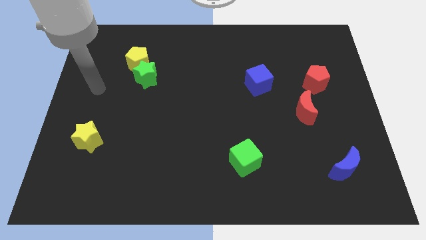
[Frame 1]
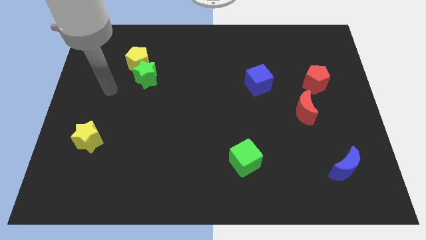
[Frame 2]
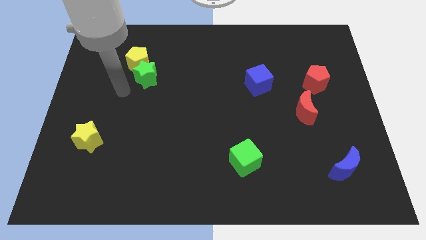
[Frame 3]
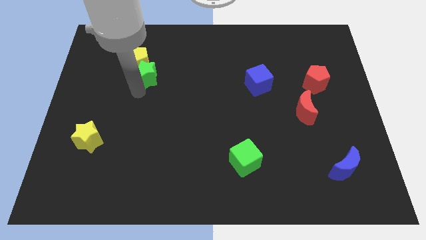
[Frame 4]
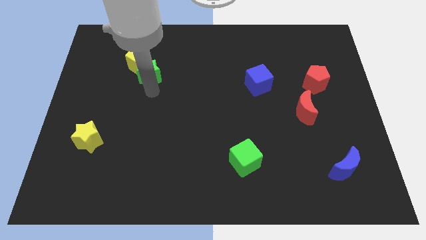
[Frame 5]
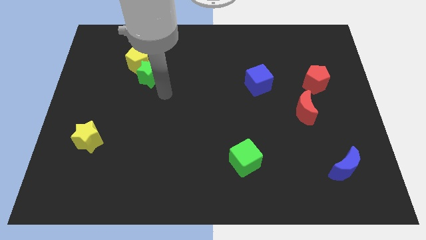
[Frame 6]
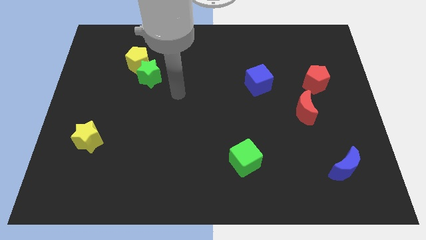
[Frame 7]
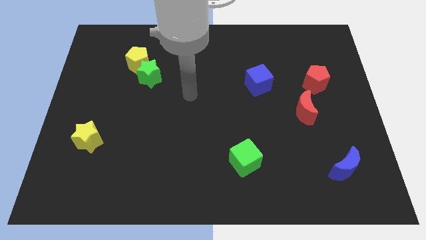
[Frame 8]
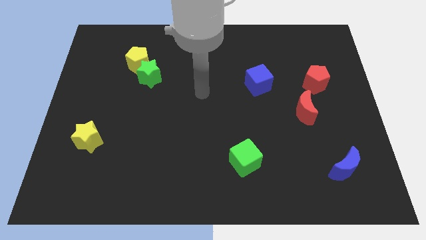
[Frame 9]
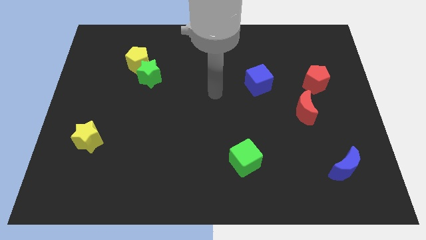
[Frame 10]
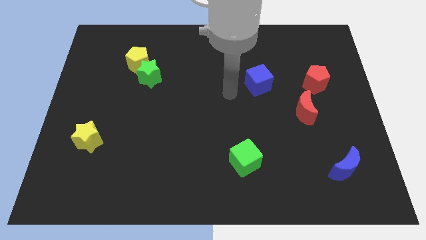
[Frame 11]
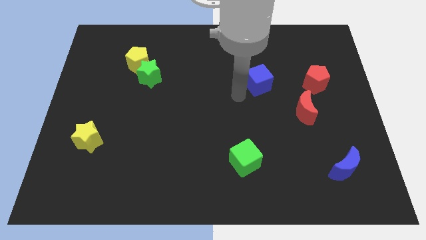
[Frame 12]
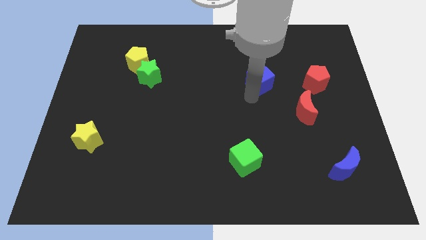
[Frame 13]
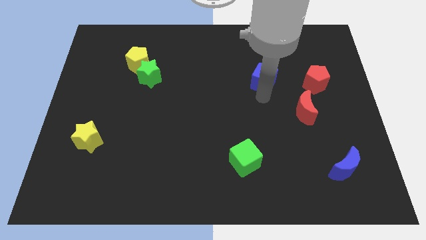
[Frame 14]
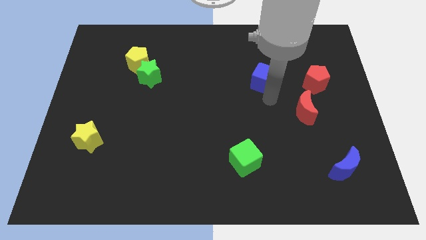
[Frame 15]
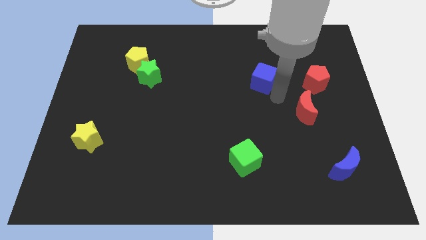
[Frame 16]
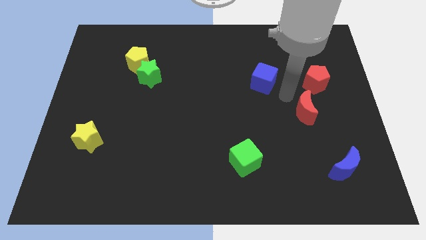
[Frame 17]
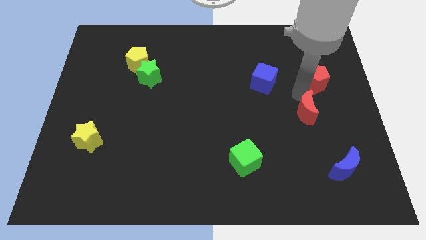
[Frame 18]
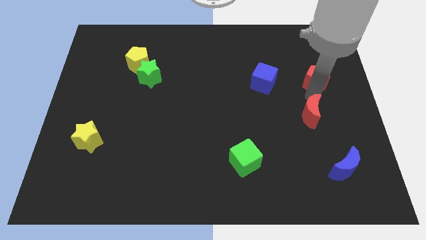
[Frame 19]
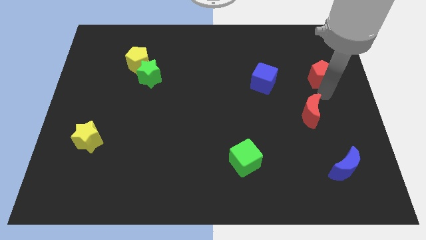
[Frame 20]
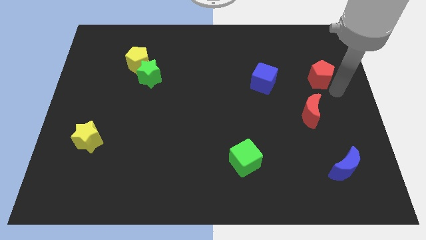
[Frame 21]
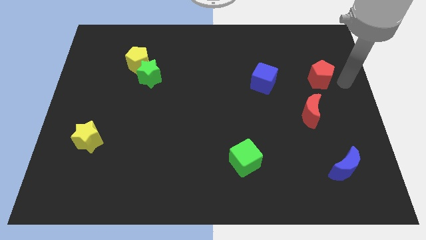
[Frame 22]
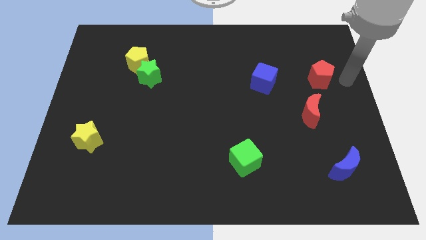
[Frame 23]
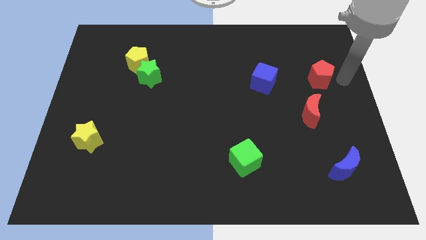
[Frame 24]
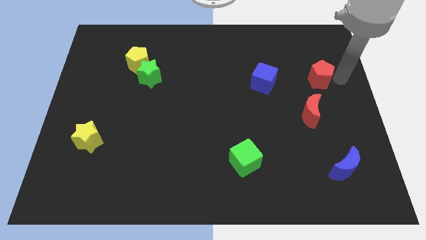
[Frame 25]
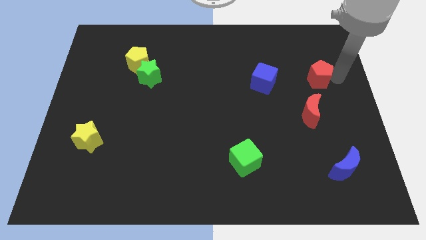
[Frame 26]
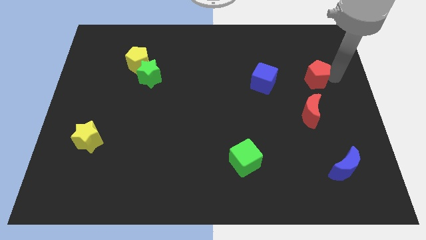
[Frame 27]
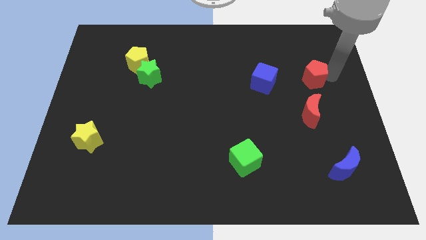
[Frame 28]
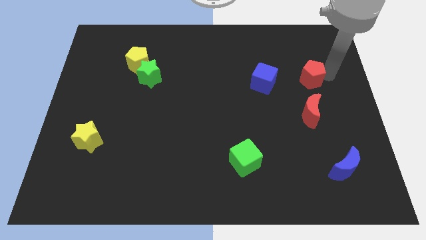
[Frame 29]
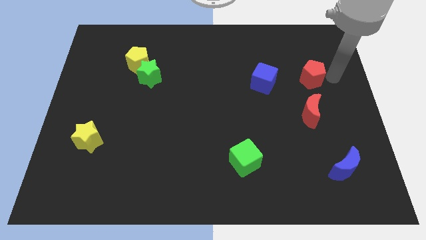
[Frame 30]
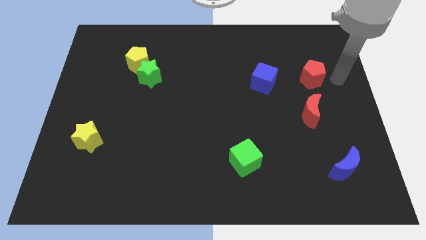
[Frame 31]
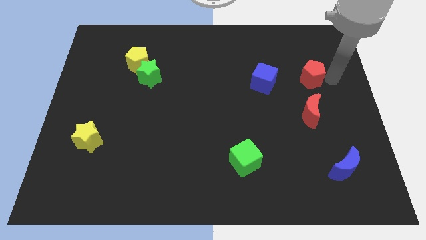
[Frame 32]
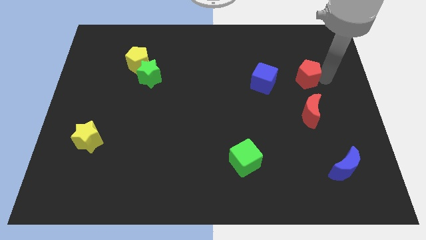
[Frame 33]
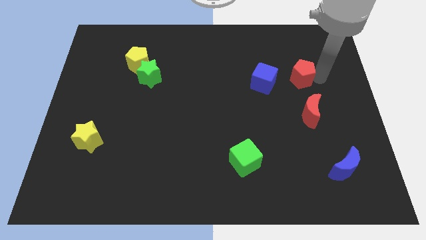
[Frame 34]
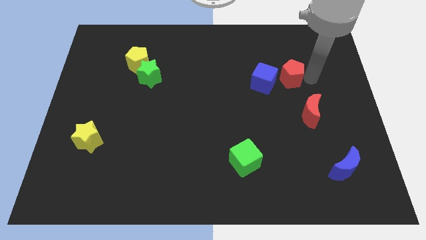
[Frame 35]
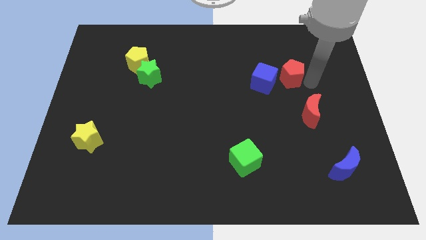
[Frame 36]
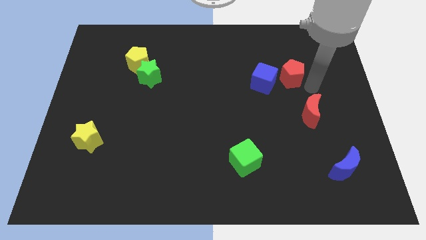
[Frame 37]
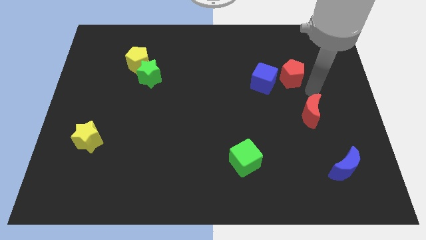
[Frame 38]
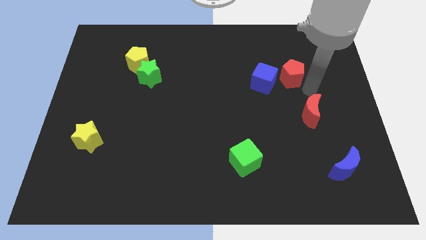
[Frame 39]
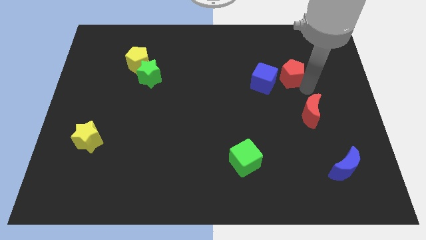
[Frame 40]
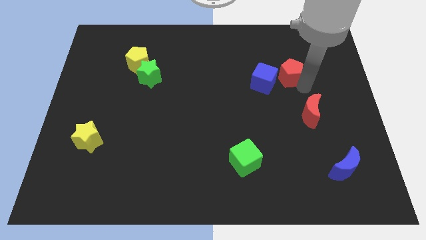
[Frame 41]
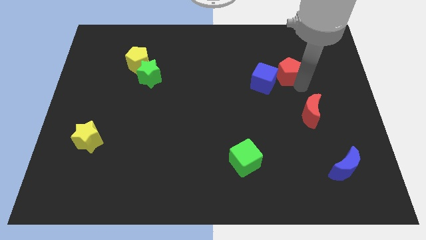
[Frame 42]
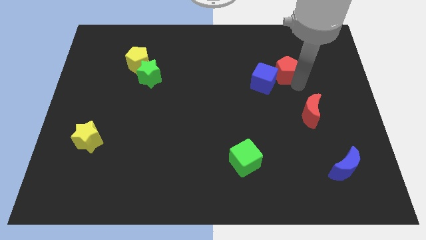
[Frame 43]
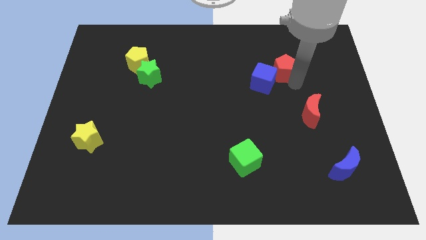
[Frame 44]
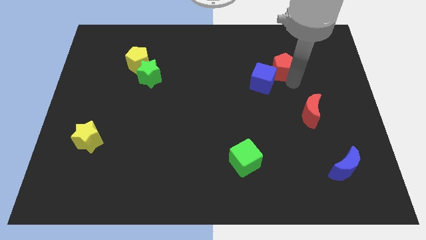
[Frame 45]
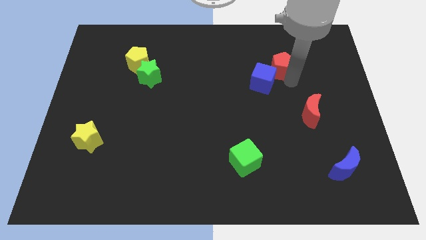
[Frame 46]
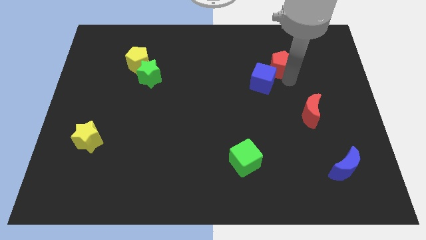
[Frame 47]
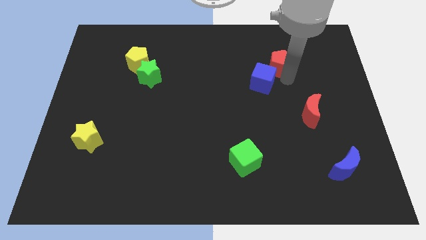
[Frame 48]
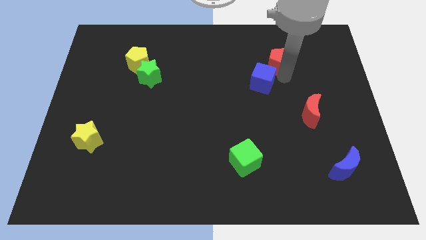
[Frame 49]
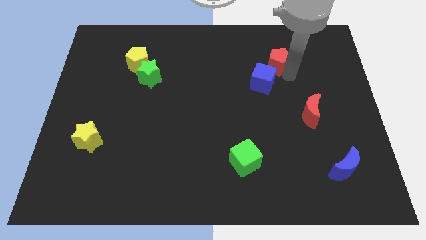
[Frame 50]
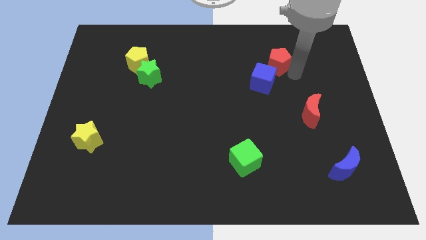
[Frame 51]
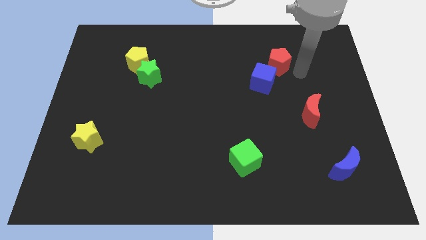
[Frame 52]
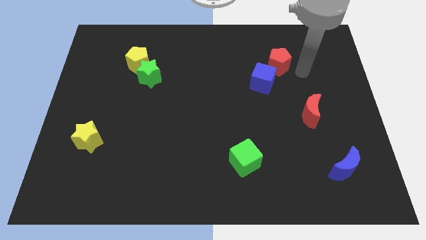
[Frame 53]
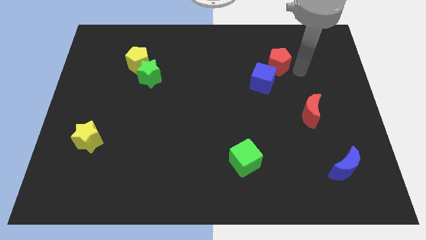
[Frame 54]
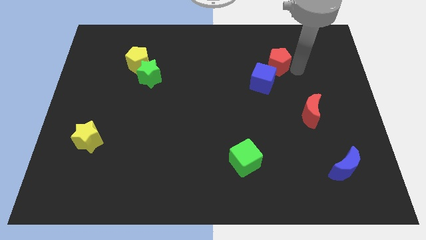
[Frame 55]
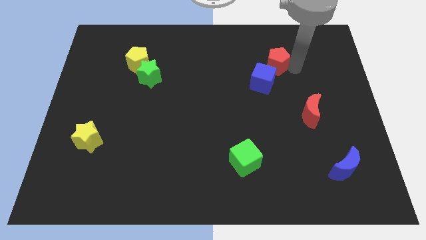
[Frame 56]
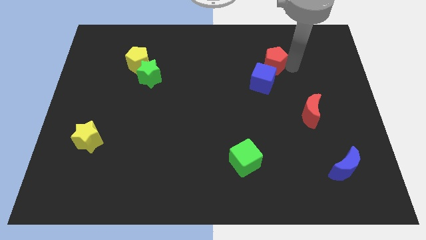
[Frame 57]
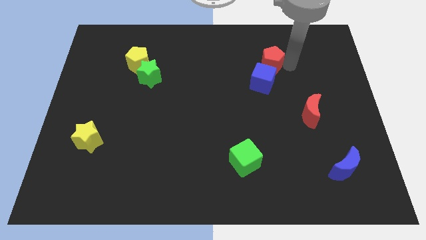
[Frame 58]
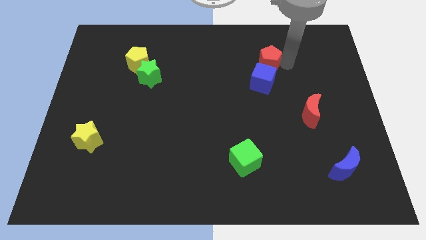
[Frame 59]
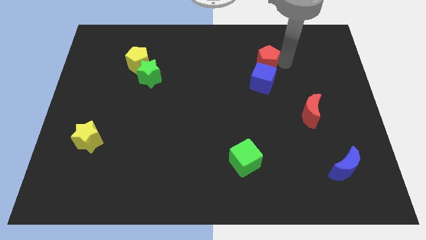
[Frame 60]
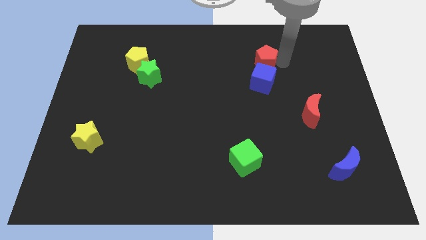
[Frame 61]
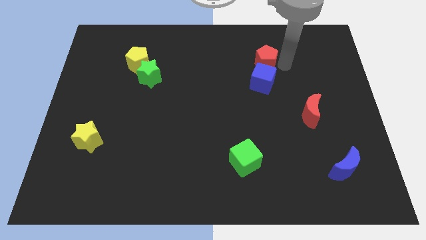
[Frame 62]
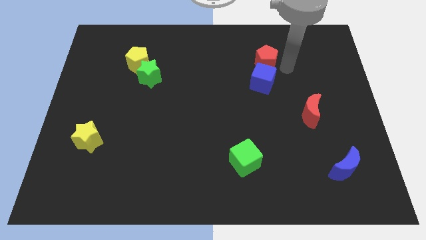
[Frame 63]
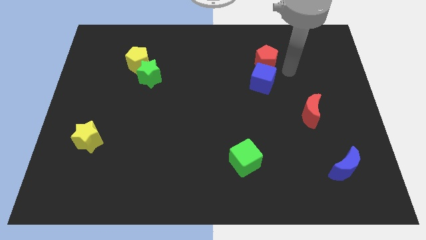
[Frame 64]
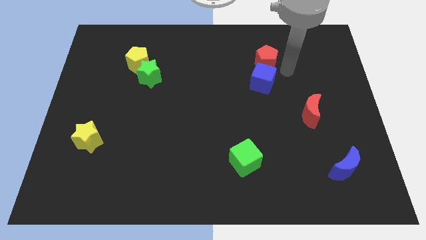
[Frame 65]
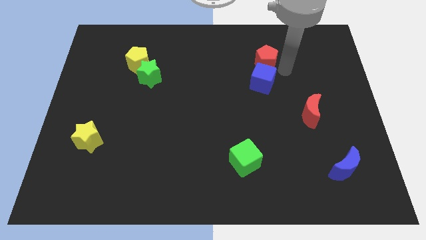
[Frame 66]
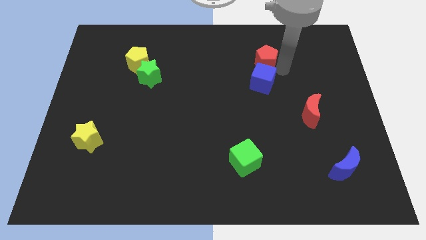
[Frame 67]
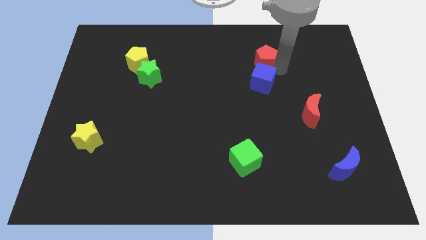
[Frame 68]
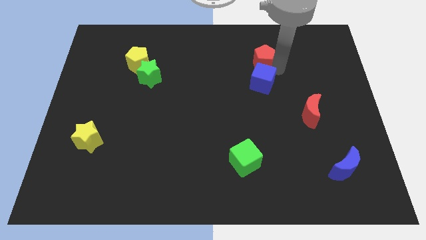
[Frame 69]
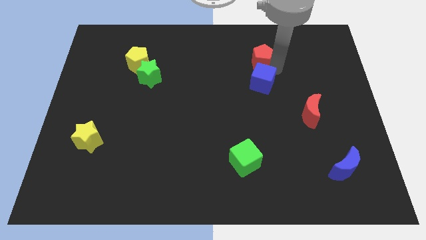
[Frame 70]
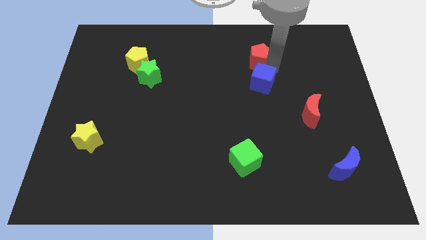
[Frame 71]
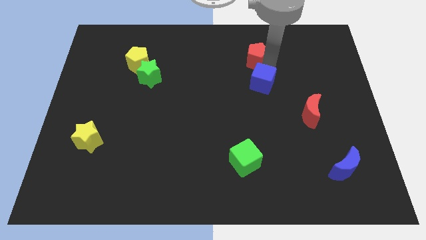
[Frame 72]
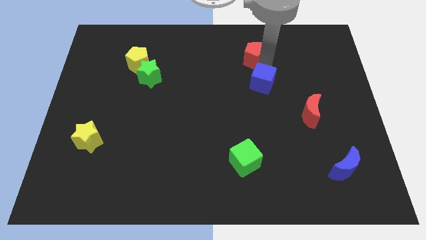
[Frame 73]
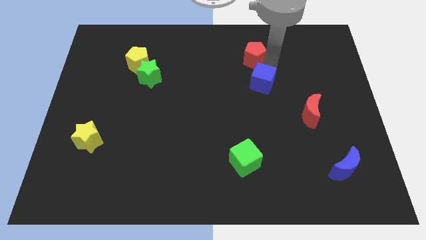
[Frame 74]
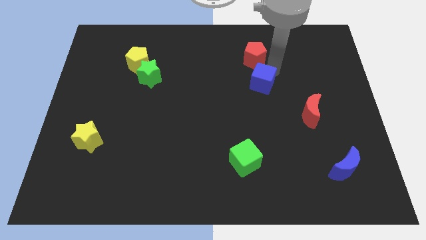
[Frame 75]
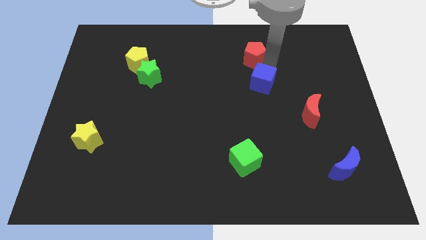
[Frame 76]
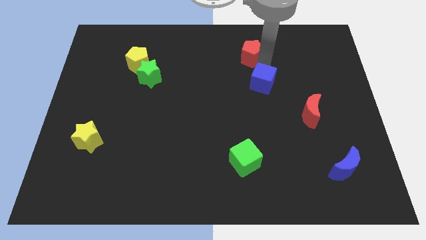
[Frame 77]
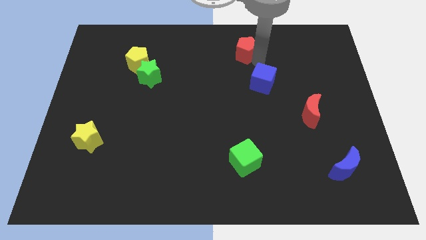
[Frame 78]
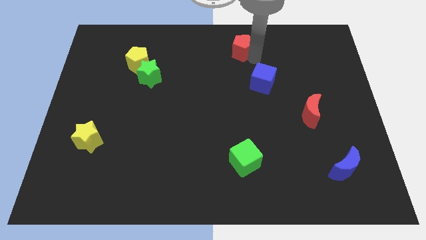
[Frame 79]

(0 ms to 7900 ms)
push the red pentagon to the top
